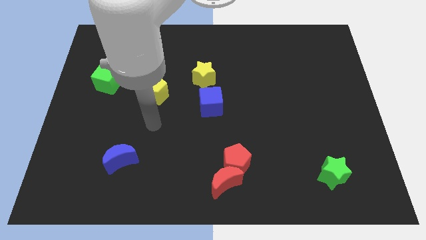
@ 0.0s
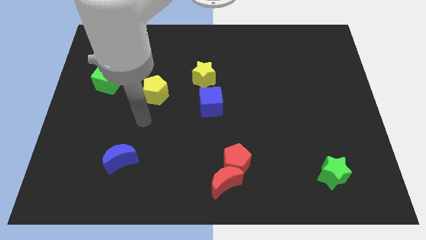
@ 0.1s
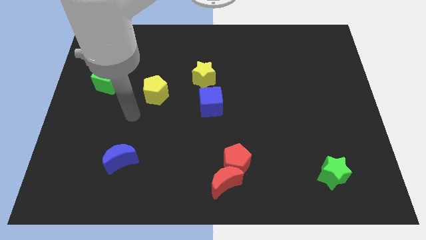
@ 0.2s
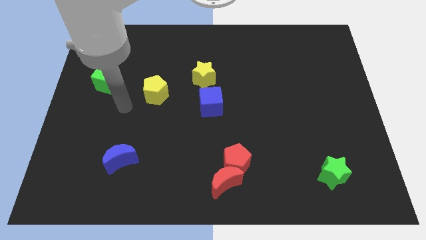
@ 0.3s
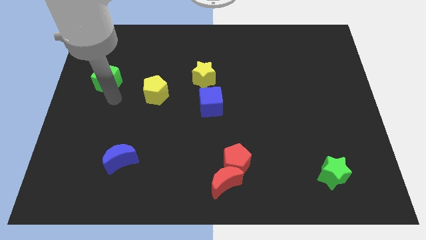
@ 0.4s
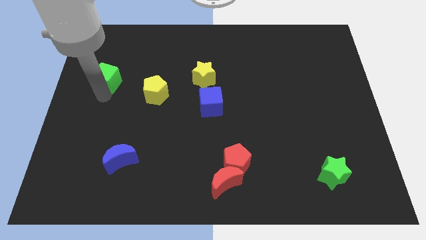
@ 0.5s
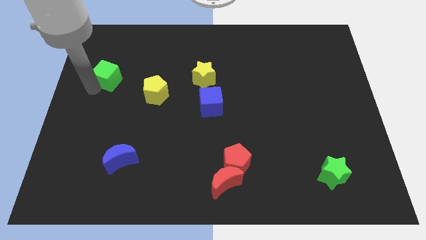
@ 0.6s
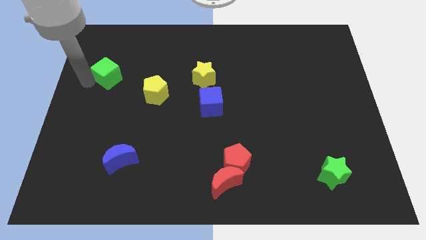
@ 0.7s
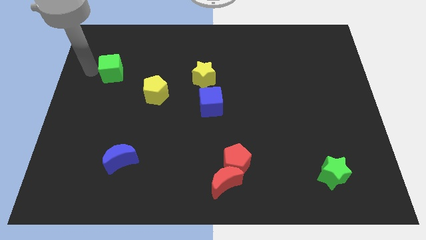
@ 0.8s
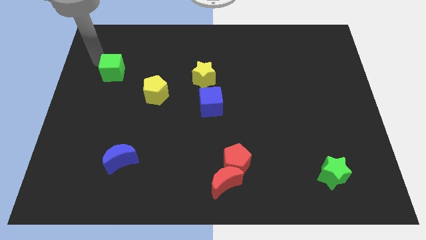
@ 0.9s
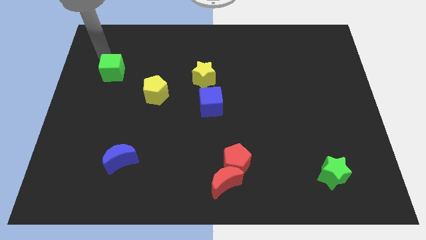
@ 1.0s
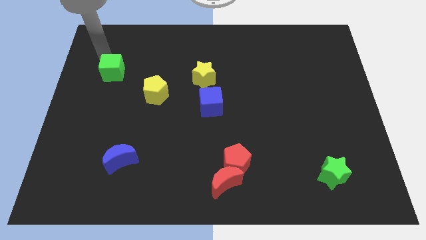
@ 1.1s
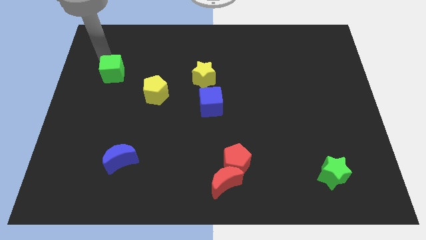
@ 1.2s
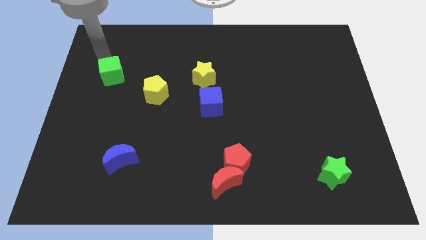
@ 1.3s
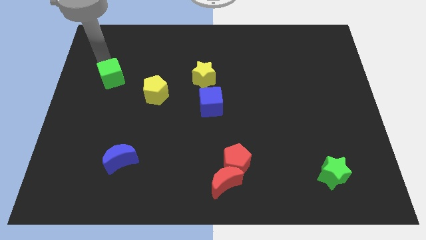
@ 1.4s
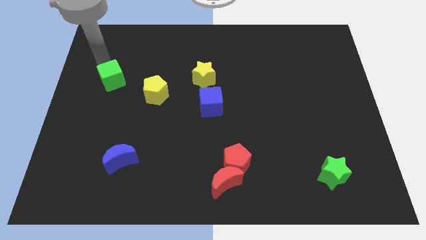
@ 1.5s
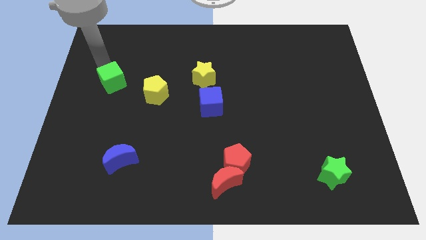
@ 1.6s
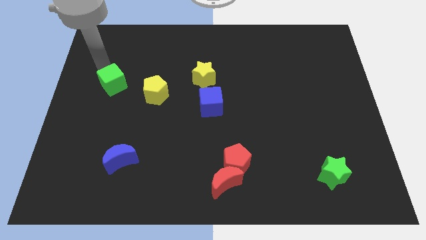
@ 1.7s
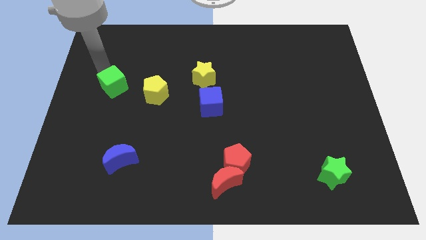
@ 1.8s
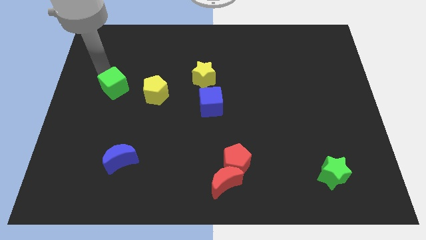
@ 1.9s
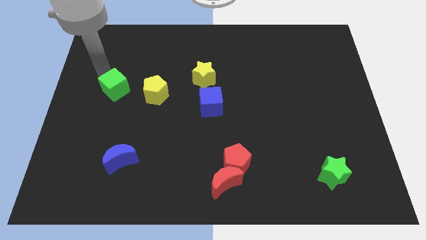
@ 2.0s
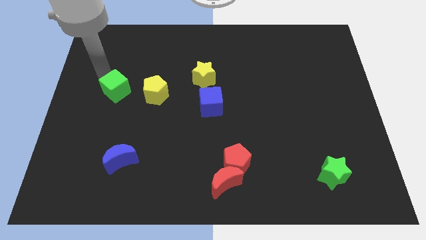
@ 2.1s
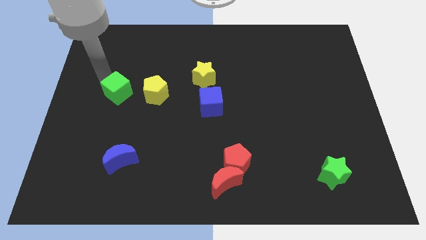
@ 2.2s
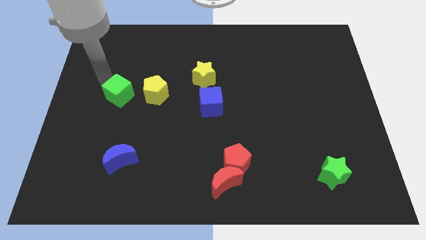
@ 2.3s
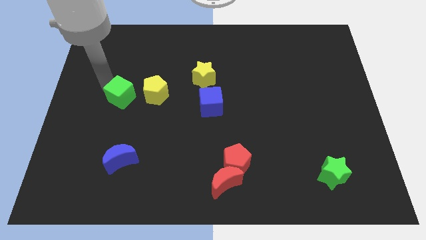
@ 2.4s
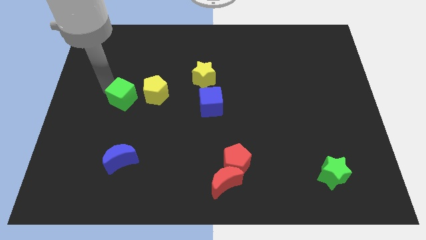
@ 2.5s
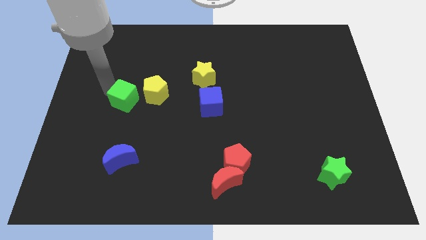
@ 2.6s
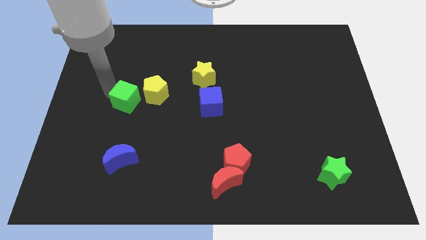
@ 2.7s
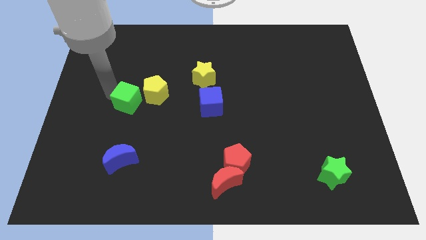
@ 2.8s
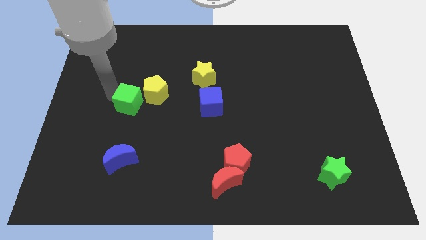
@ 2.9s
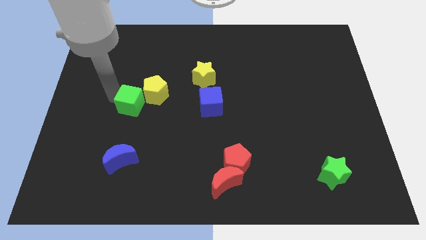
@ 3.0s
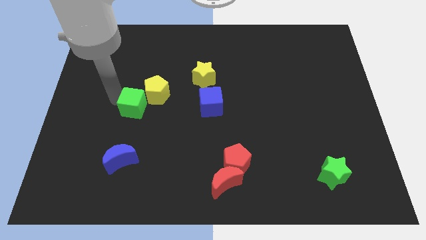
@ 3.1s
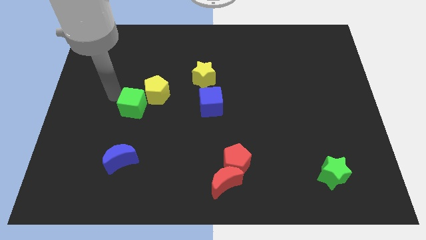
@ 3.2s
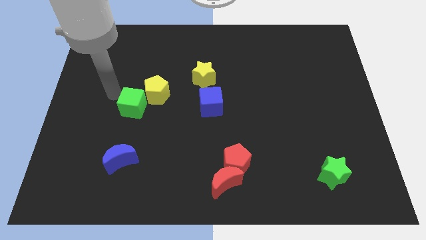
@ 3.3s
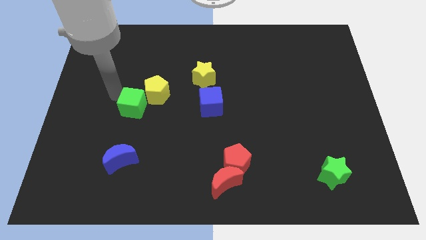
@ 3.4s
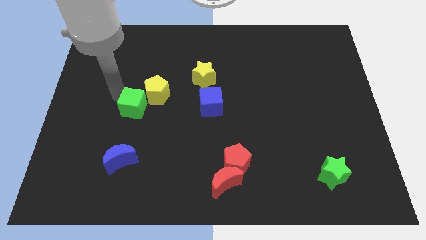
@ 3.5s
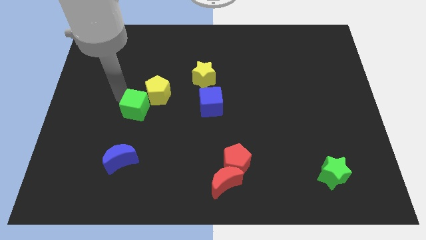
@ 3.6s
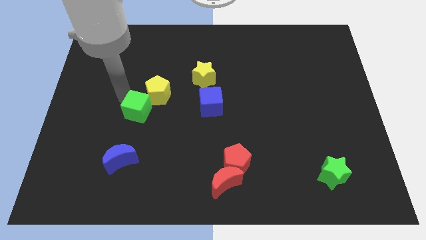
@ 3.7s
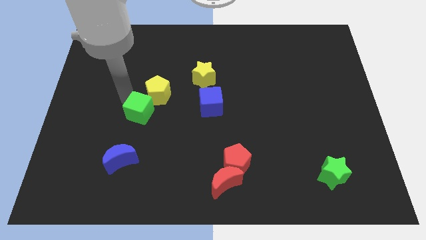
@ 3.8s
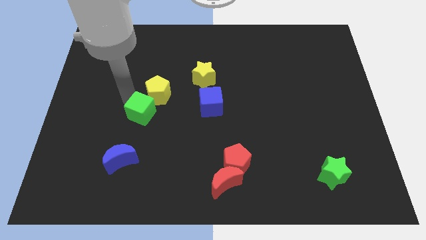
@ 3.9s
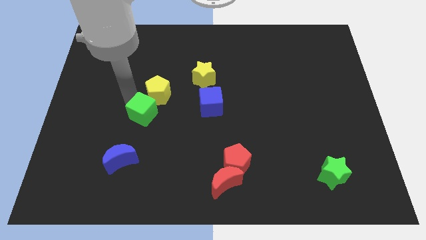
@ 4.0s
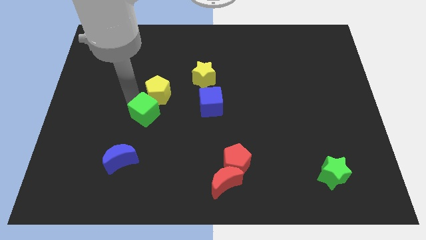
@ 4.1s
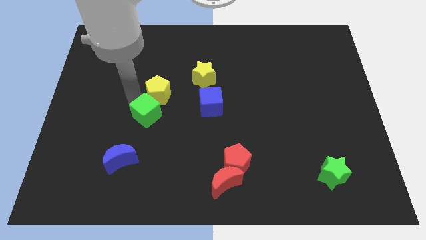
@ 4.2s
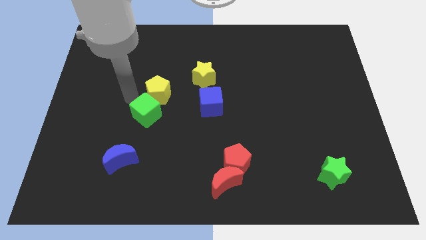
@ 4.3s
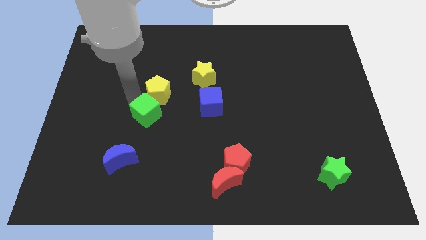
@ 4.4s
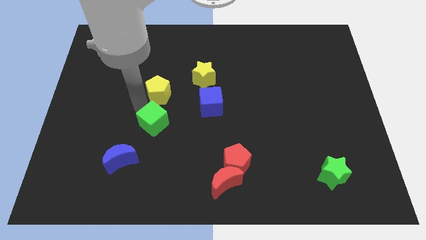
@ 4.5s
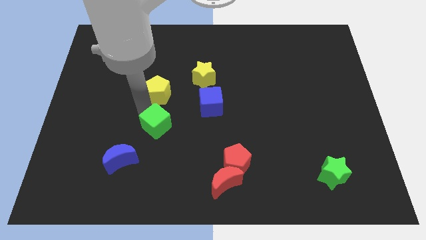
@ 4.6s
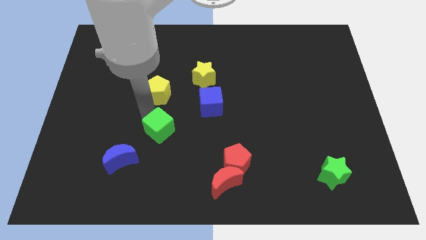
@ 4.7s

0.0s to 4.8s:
push the green cube downwards and to the right diagonally

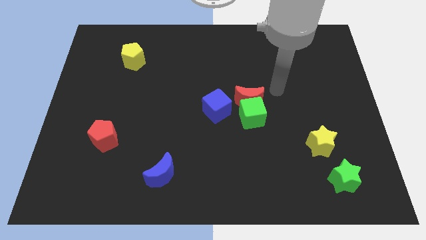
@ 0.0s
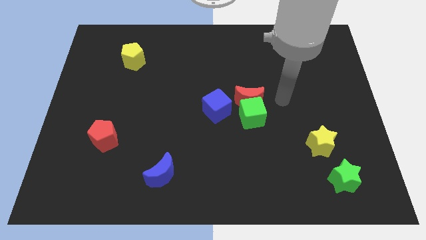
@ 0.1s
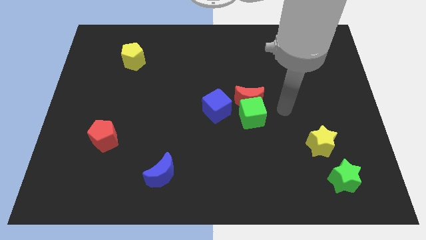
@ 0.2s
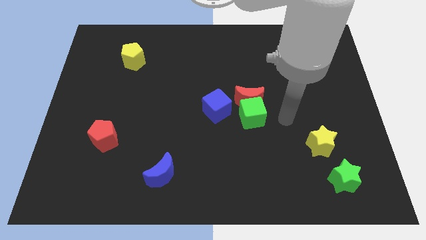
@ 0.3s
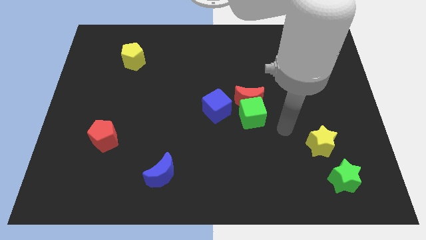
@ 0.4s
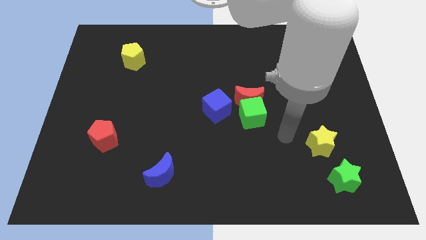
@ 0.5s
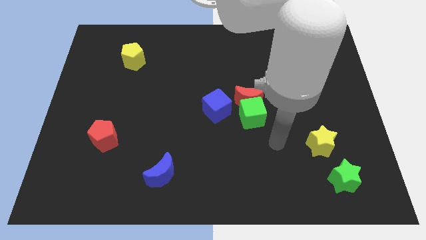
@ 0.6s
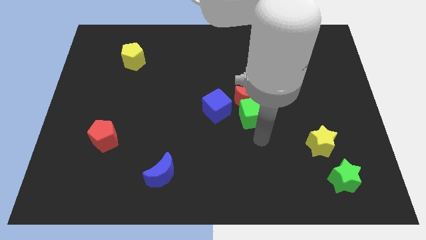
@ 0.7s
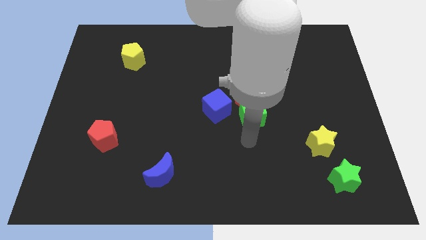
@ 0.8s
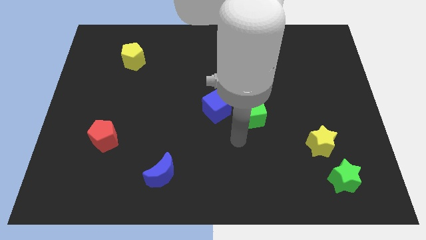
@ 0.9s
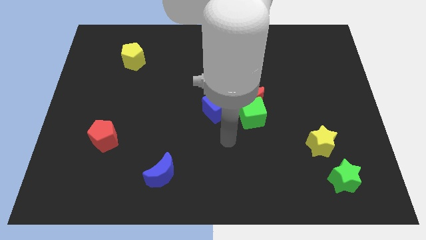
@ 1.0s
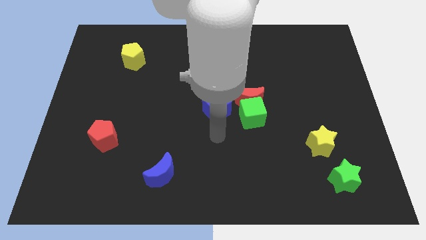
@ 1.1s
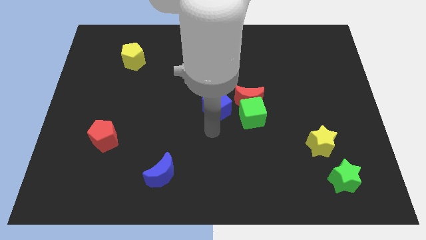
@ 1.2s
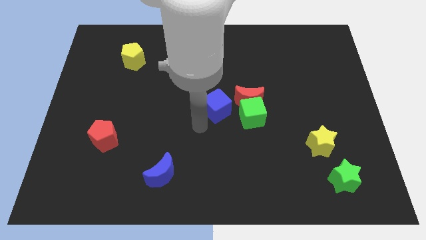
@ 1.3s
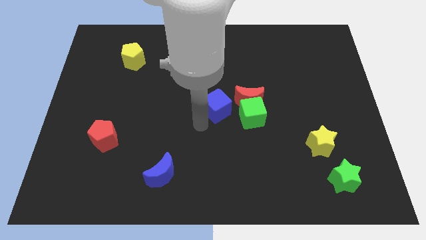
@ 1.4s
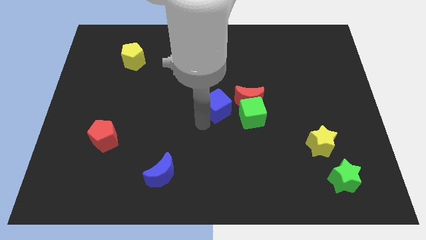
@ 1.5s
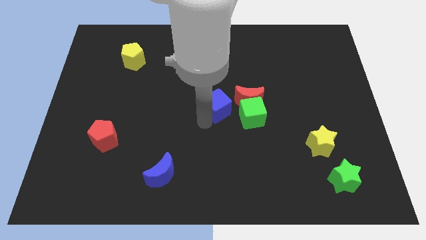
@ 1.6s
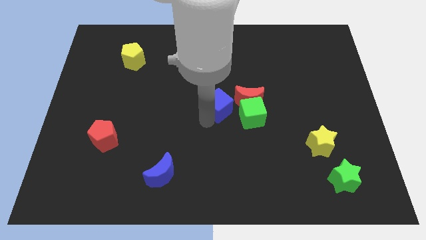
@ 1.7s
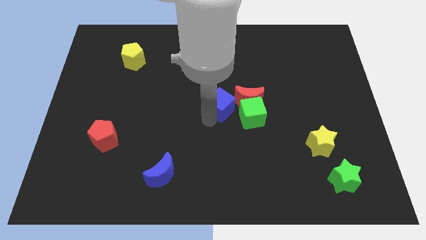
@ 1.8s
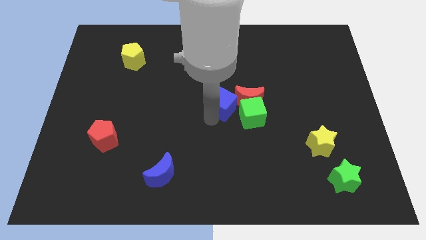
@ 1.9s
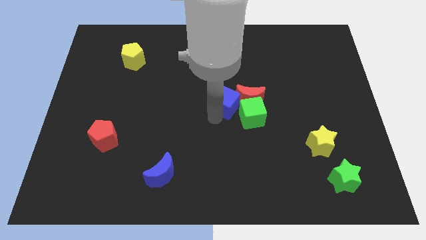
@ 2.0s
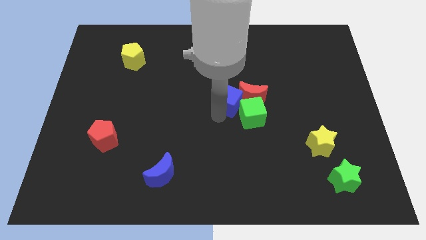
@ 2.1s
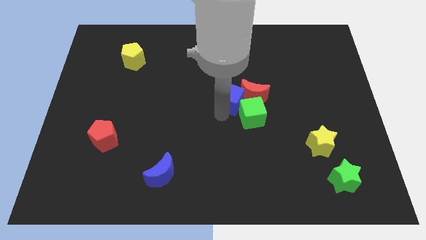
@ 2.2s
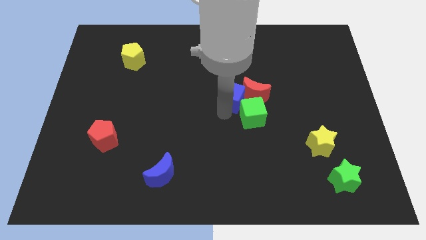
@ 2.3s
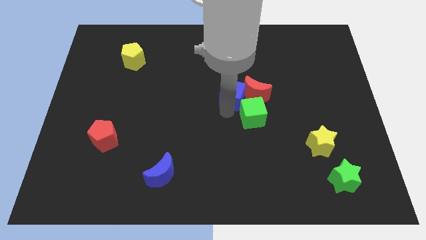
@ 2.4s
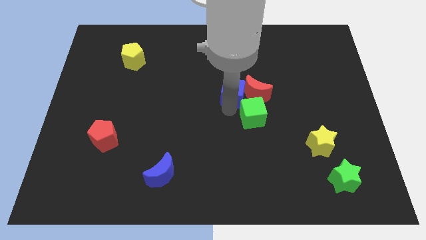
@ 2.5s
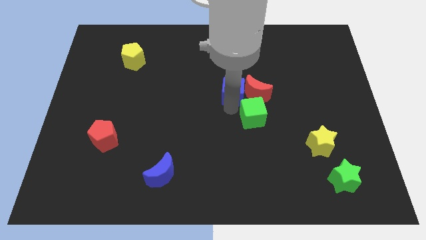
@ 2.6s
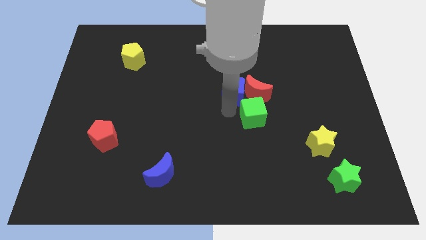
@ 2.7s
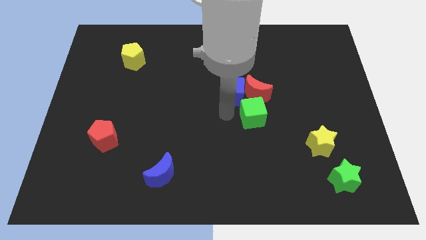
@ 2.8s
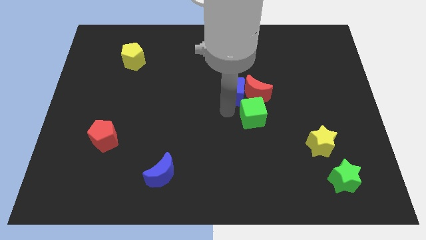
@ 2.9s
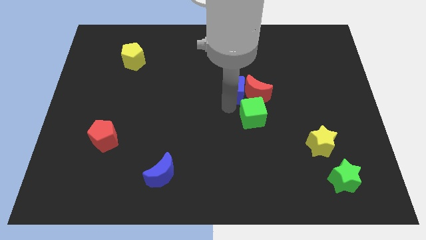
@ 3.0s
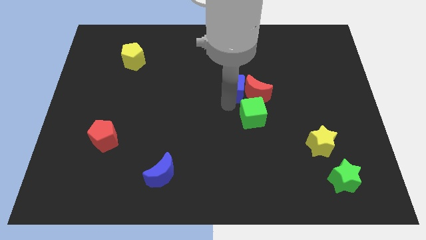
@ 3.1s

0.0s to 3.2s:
move the blue cube somewhat up and to the right diagonally
